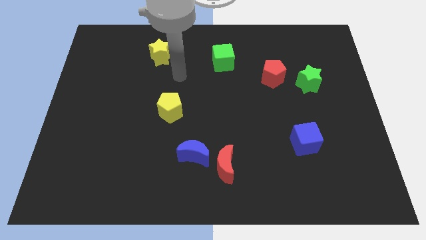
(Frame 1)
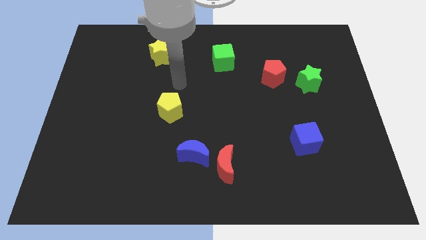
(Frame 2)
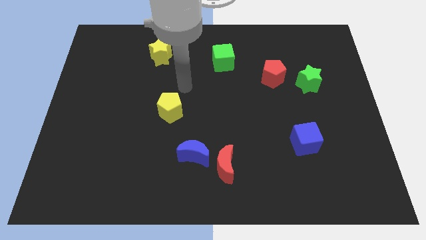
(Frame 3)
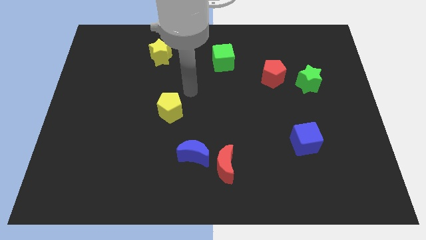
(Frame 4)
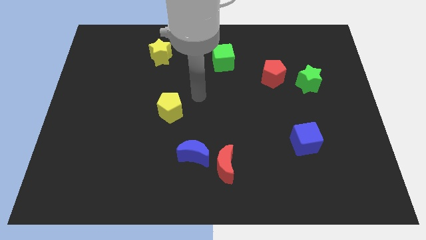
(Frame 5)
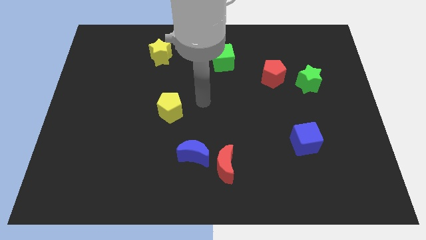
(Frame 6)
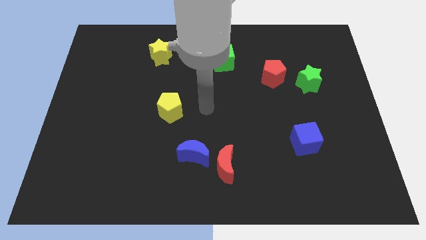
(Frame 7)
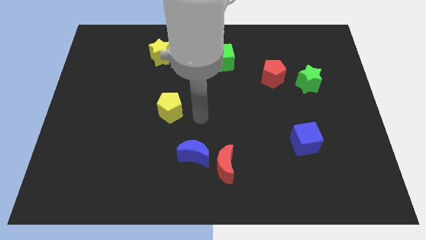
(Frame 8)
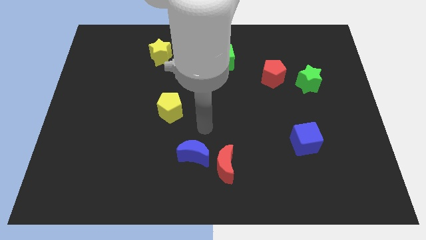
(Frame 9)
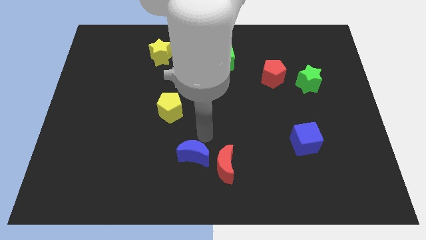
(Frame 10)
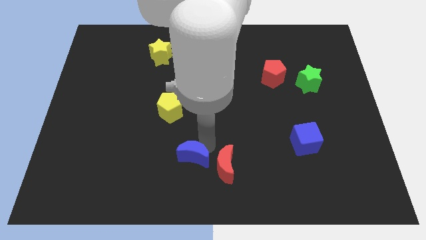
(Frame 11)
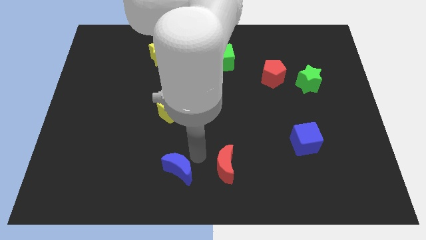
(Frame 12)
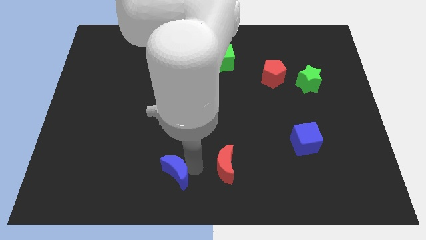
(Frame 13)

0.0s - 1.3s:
pull the red moon apart from the blue moon

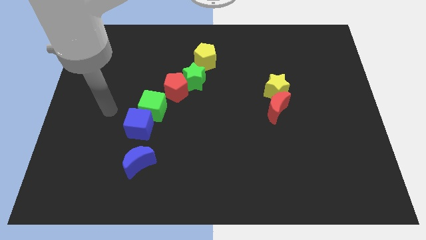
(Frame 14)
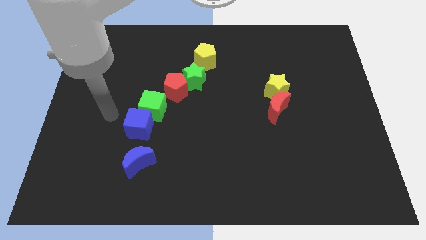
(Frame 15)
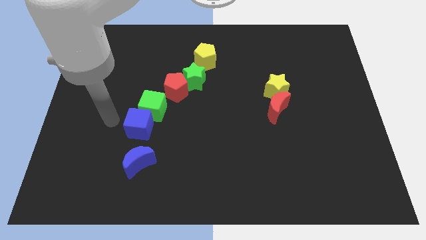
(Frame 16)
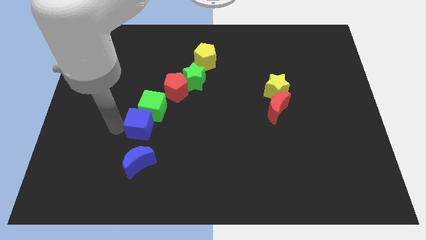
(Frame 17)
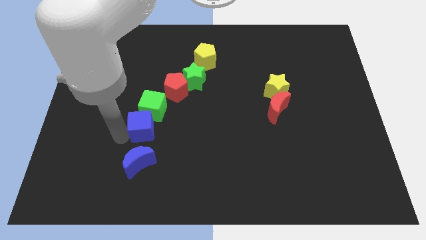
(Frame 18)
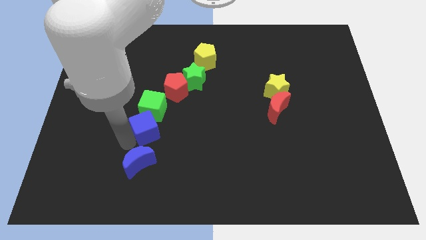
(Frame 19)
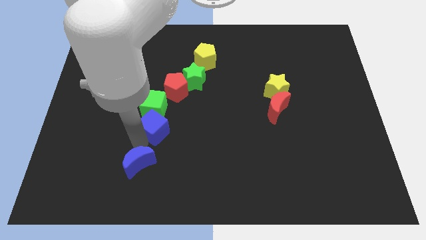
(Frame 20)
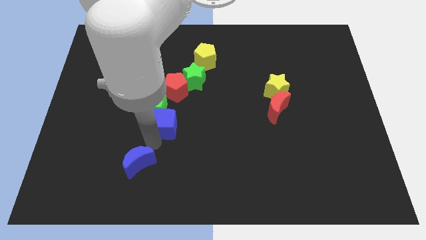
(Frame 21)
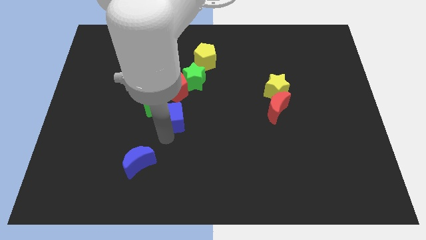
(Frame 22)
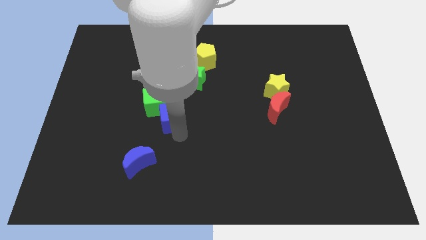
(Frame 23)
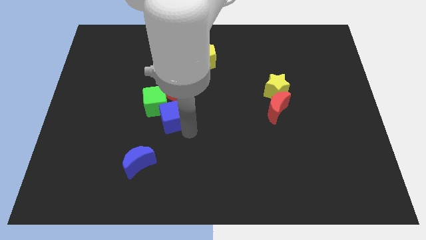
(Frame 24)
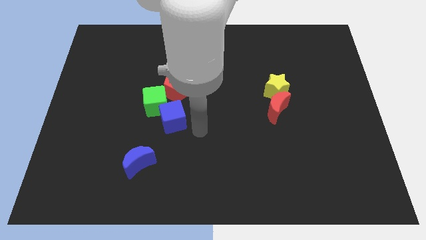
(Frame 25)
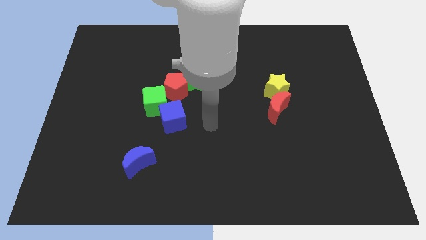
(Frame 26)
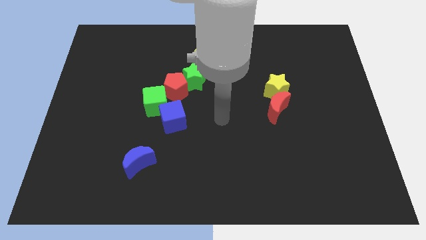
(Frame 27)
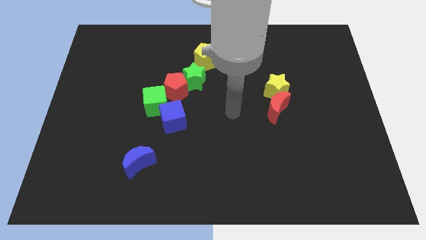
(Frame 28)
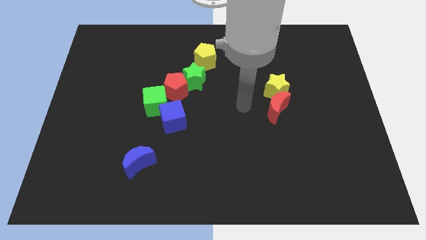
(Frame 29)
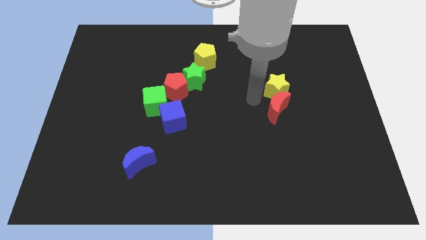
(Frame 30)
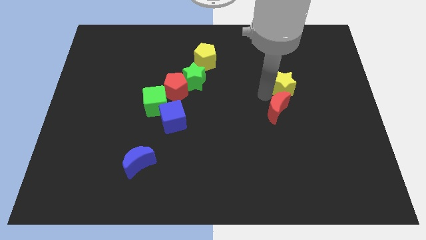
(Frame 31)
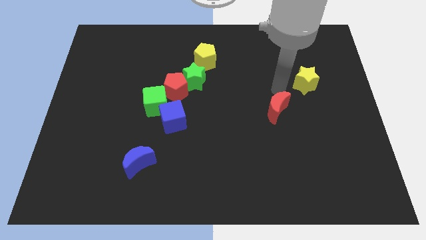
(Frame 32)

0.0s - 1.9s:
separate the red moon from the yellow star

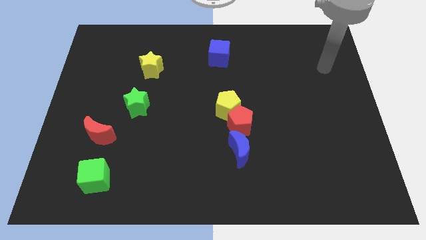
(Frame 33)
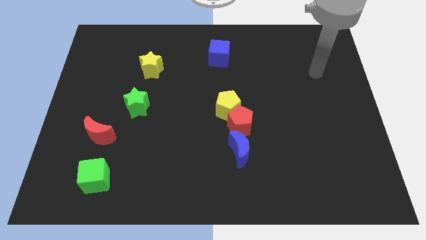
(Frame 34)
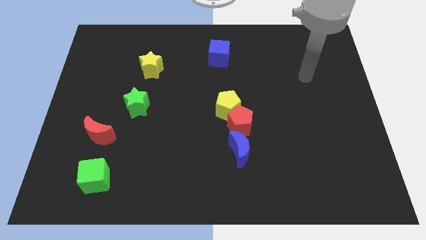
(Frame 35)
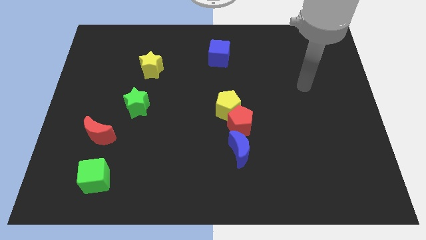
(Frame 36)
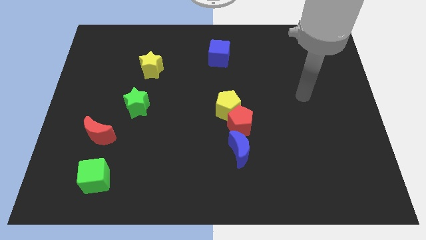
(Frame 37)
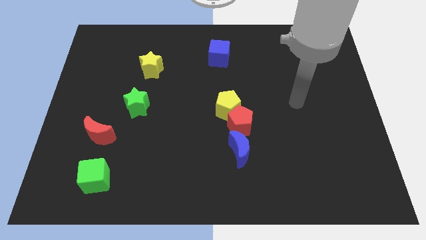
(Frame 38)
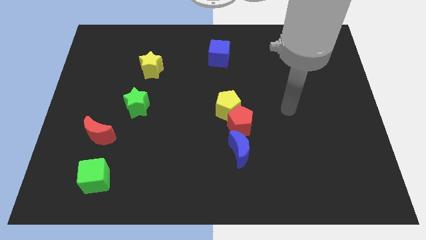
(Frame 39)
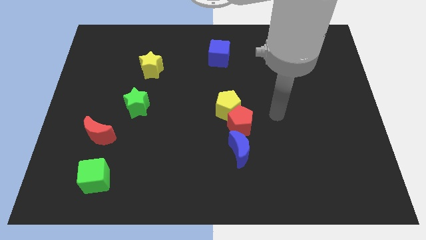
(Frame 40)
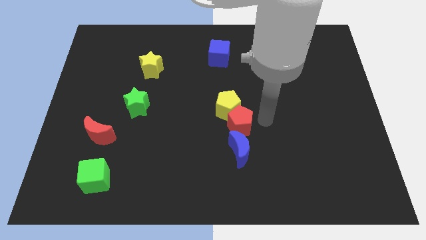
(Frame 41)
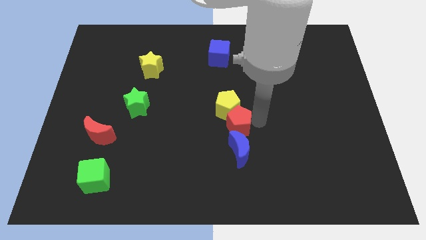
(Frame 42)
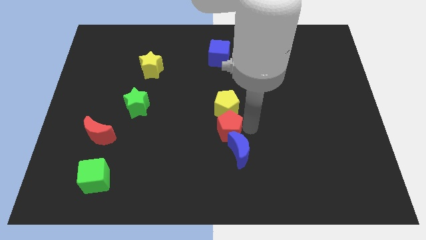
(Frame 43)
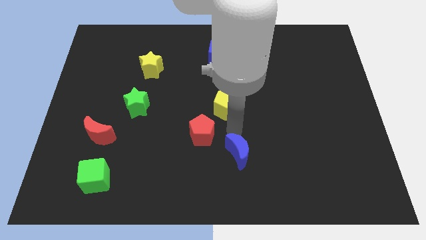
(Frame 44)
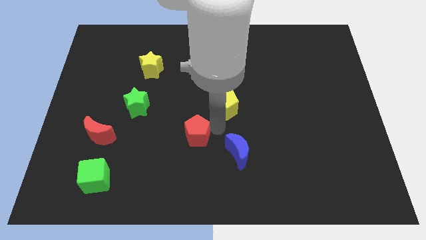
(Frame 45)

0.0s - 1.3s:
separate the yellow pentagon from the red pentagon

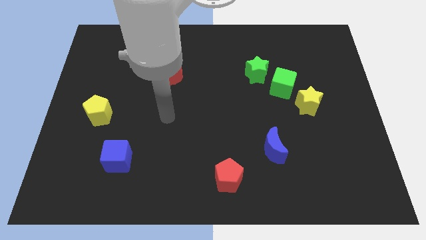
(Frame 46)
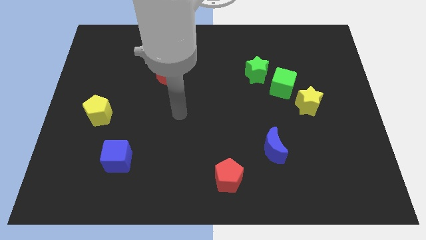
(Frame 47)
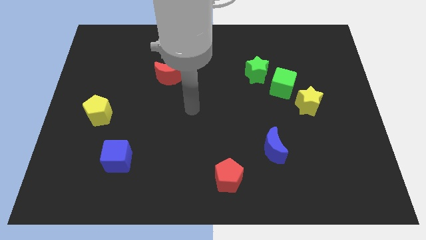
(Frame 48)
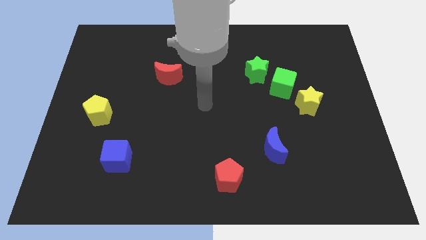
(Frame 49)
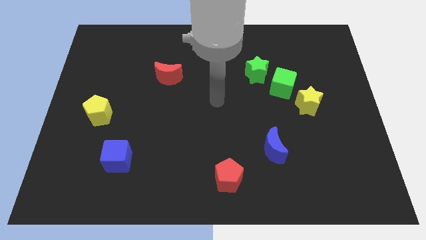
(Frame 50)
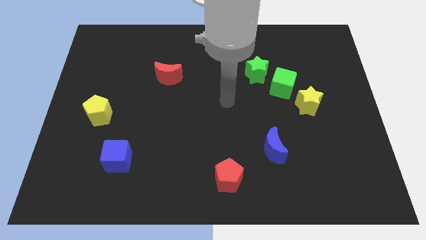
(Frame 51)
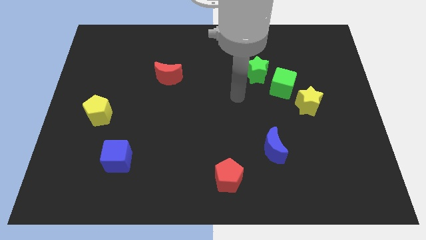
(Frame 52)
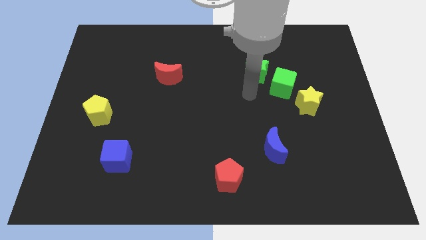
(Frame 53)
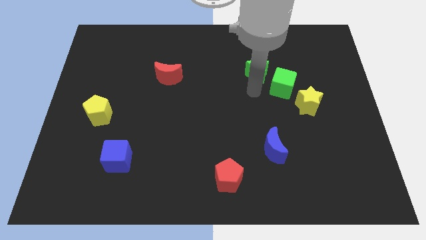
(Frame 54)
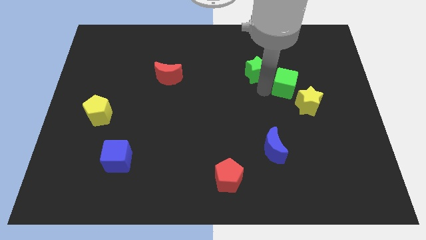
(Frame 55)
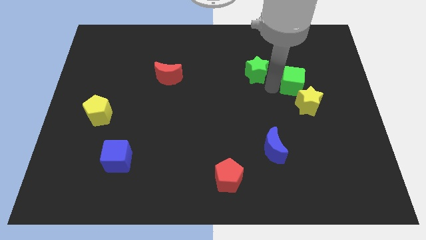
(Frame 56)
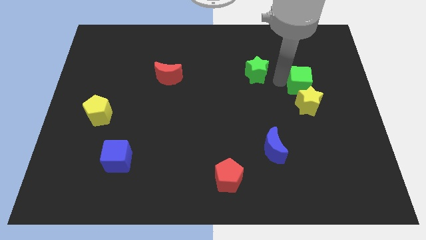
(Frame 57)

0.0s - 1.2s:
pull the green star apart from the green cube

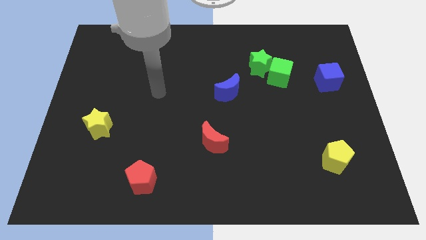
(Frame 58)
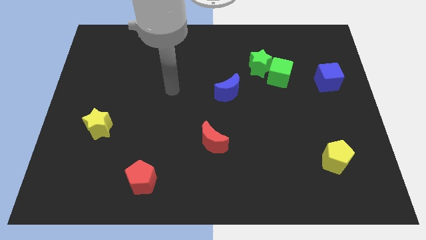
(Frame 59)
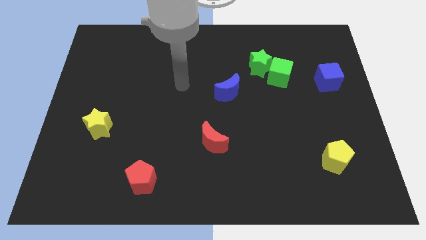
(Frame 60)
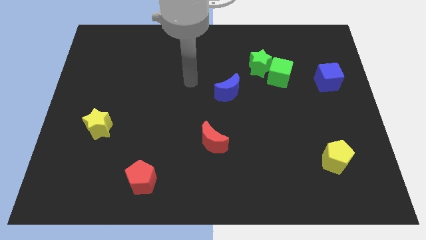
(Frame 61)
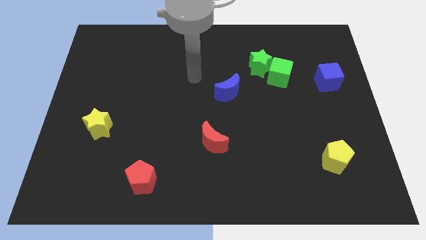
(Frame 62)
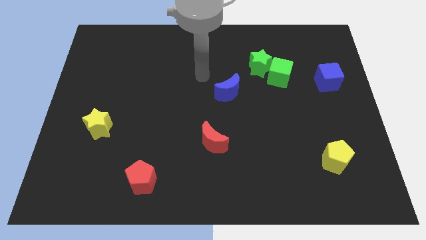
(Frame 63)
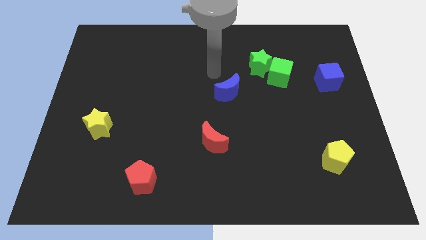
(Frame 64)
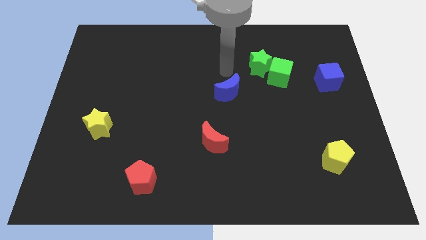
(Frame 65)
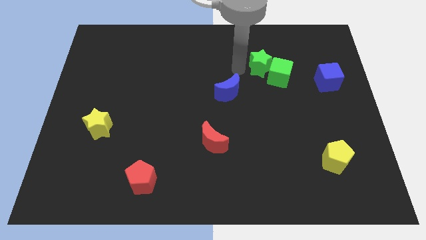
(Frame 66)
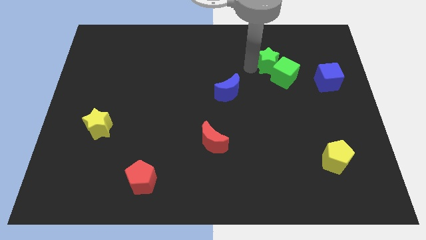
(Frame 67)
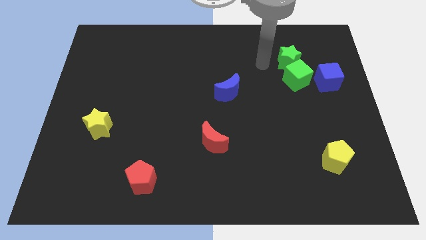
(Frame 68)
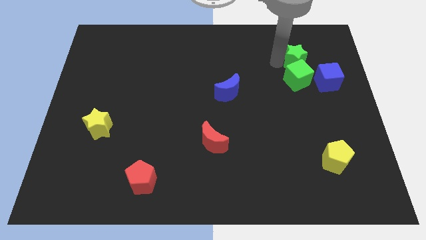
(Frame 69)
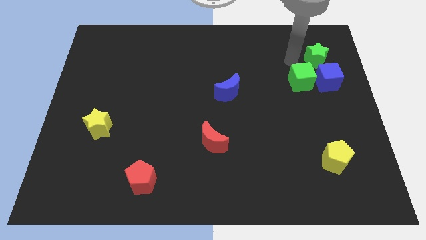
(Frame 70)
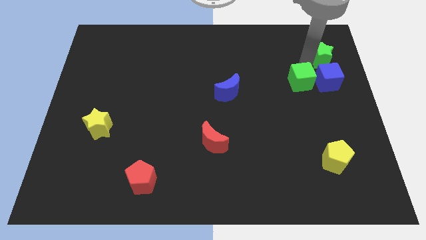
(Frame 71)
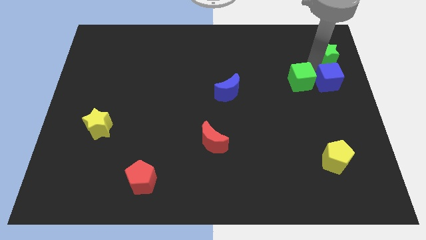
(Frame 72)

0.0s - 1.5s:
pull the green cube apart from the green star

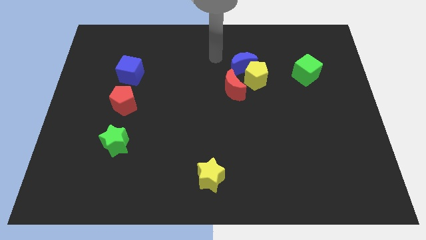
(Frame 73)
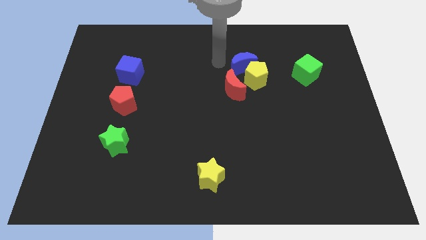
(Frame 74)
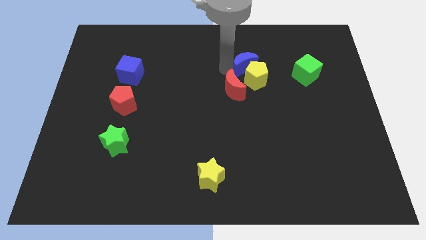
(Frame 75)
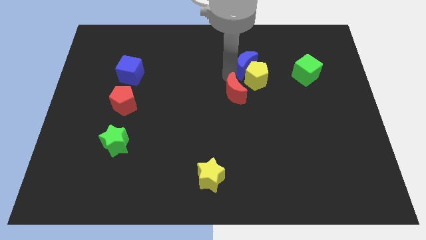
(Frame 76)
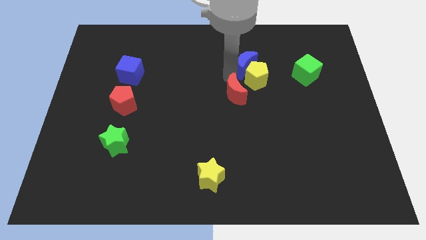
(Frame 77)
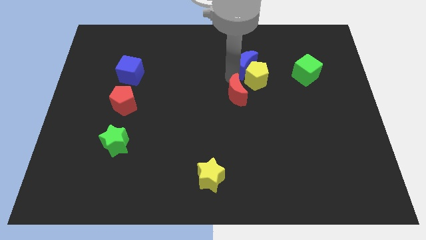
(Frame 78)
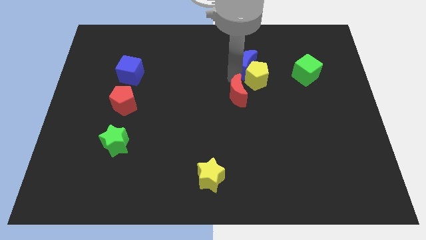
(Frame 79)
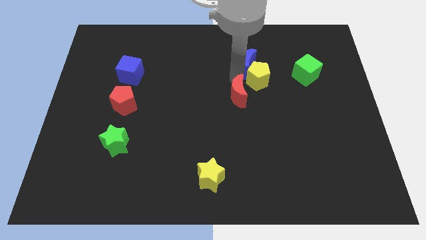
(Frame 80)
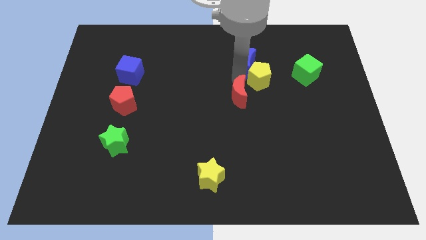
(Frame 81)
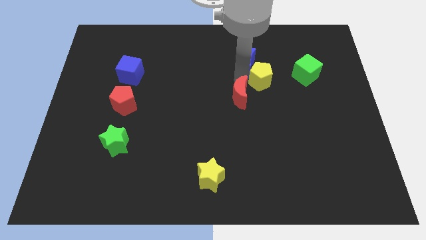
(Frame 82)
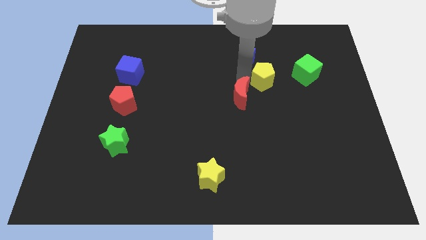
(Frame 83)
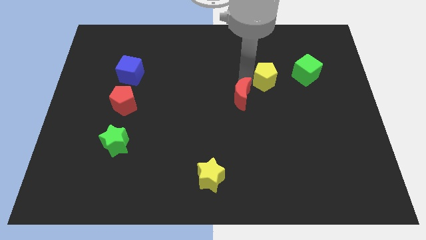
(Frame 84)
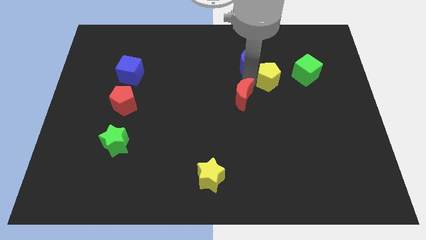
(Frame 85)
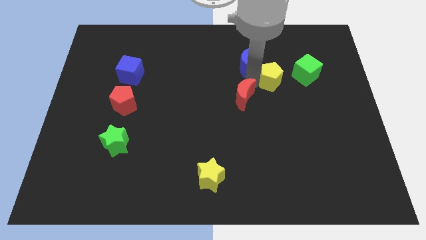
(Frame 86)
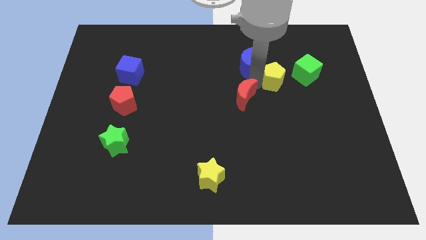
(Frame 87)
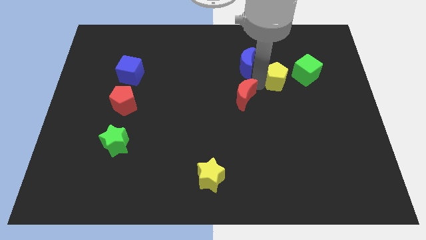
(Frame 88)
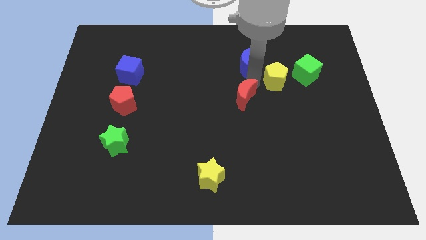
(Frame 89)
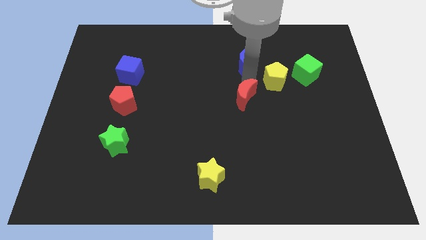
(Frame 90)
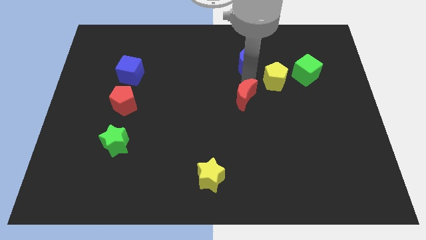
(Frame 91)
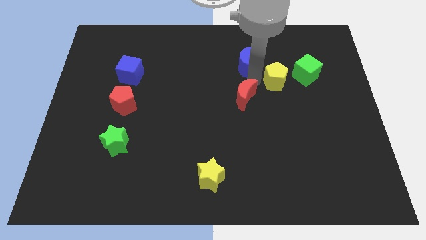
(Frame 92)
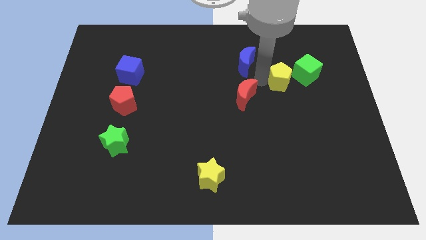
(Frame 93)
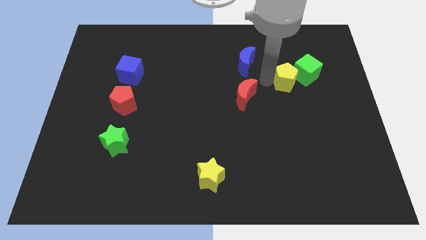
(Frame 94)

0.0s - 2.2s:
separate the yellow pentagon from the blue moon and red moon

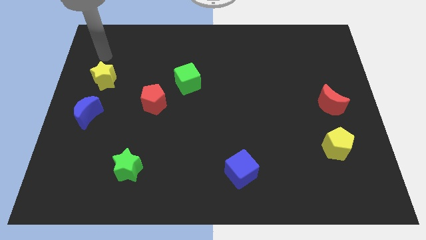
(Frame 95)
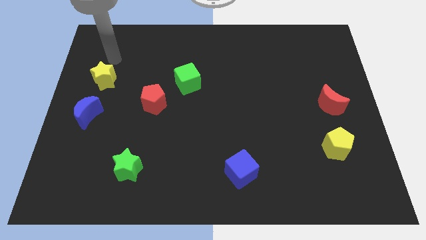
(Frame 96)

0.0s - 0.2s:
pull the red pentagon apart from the green cube
